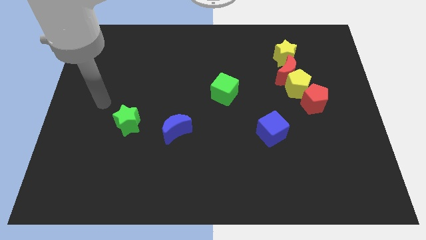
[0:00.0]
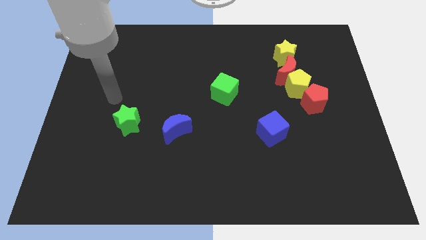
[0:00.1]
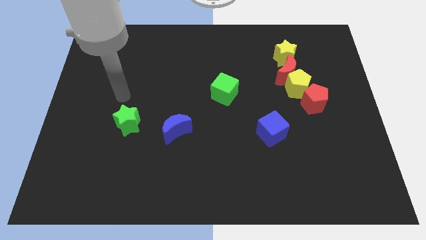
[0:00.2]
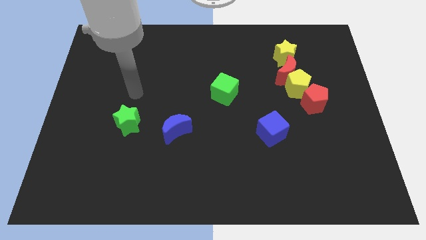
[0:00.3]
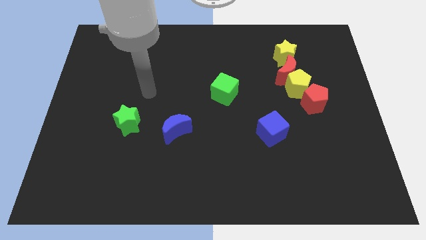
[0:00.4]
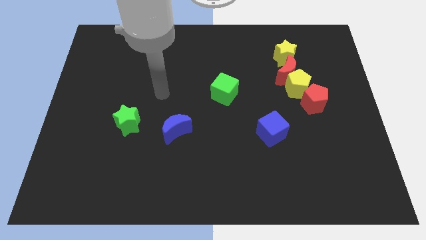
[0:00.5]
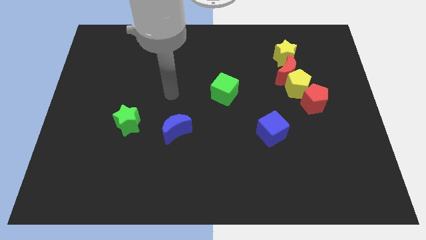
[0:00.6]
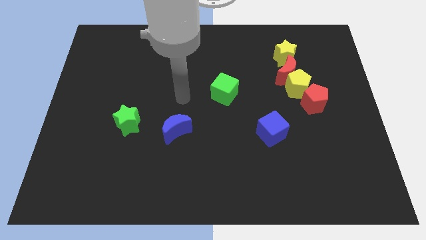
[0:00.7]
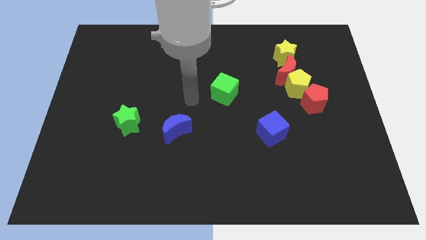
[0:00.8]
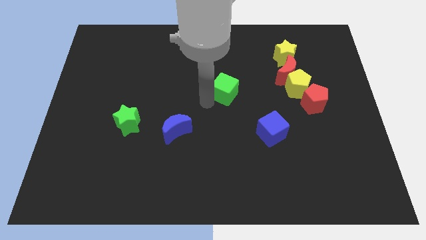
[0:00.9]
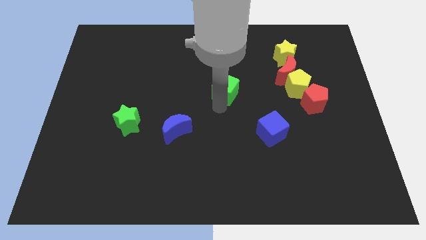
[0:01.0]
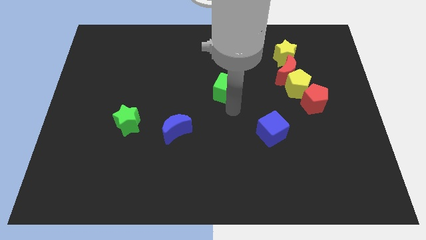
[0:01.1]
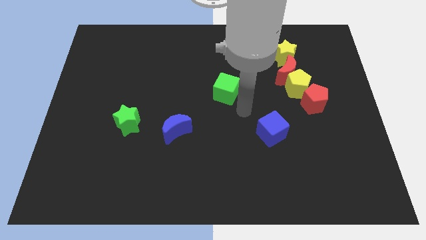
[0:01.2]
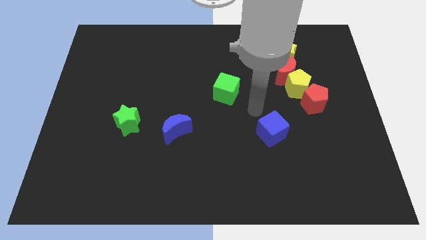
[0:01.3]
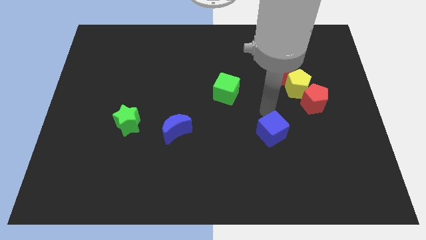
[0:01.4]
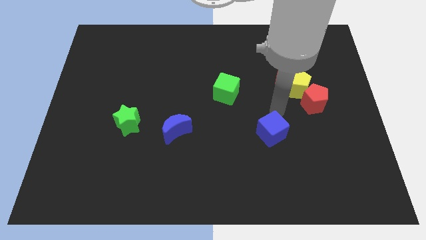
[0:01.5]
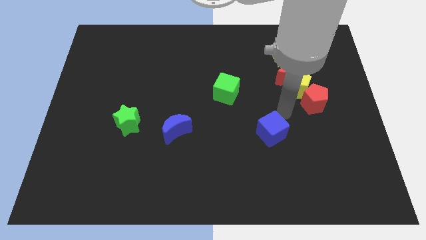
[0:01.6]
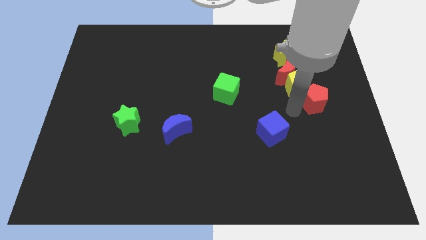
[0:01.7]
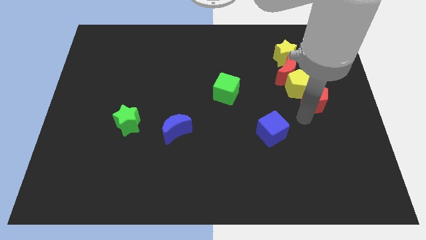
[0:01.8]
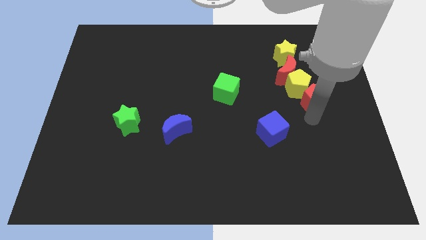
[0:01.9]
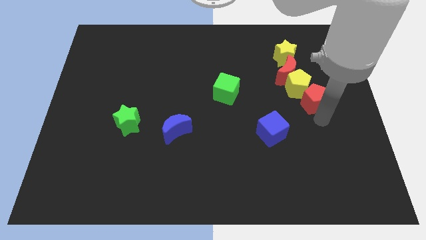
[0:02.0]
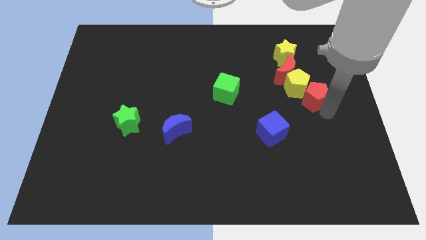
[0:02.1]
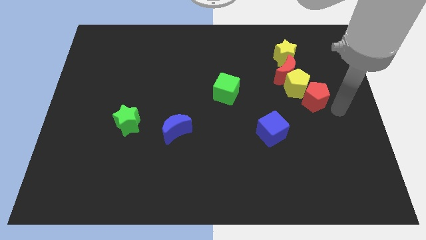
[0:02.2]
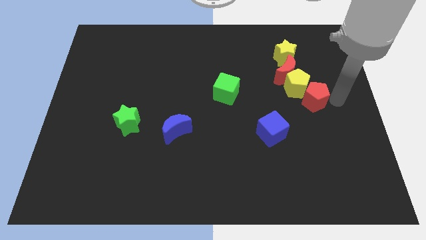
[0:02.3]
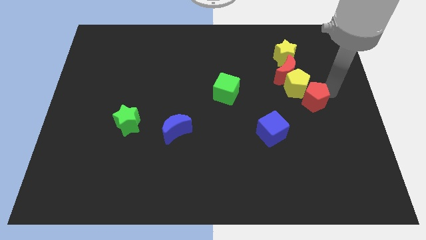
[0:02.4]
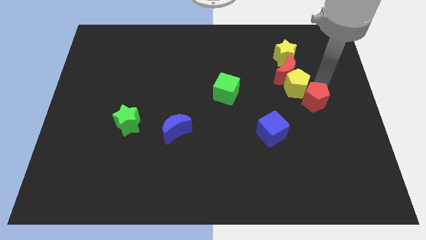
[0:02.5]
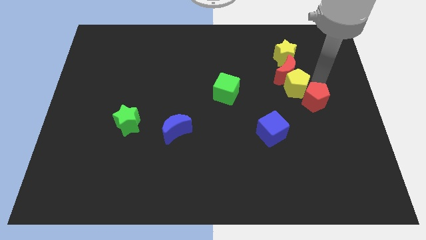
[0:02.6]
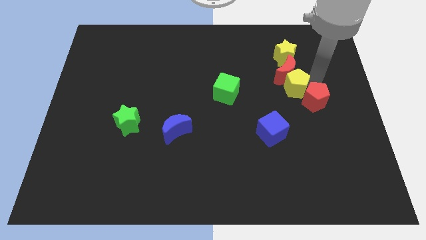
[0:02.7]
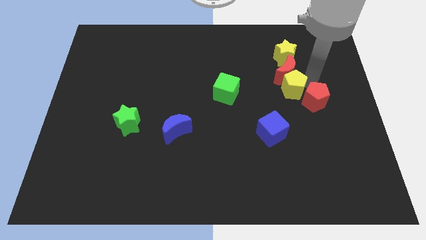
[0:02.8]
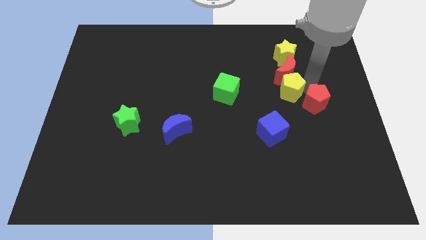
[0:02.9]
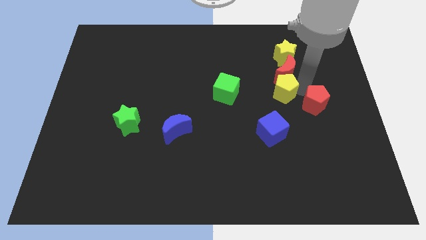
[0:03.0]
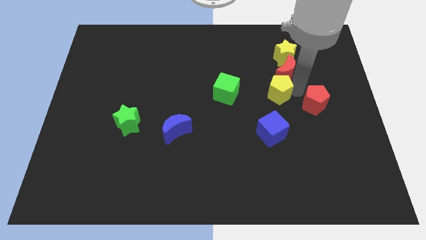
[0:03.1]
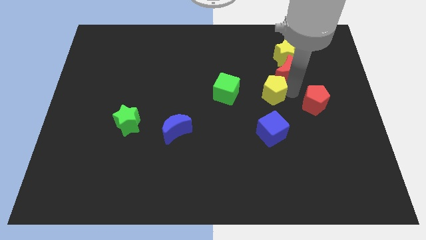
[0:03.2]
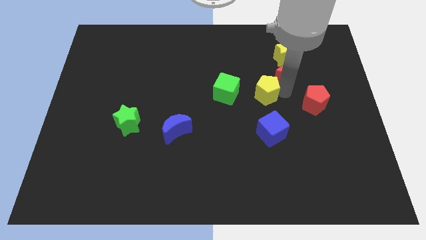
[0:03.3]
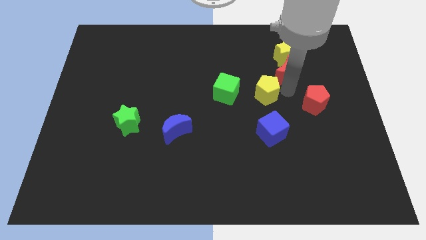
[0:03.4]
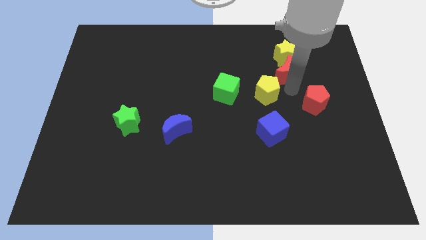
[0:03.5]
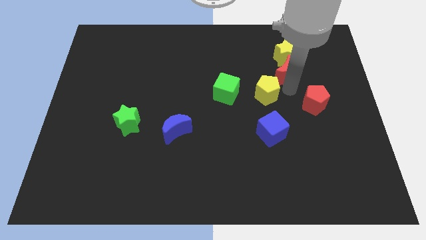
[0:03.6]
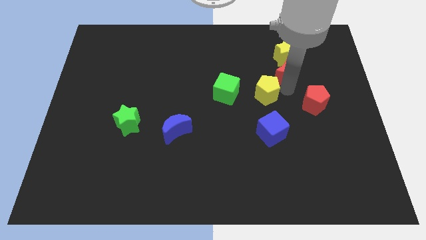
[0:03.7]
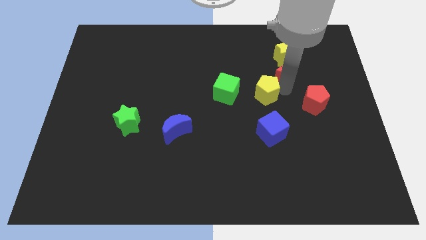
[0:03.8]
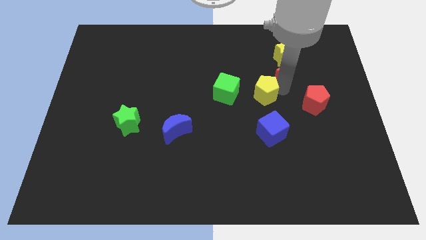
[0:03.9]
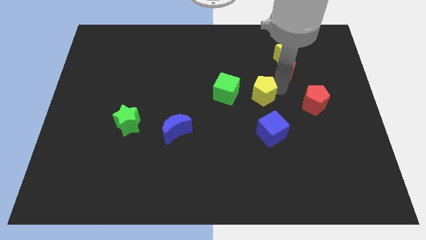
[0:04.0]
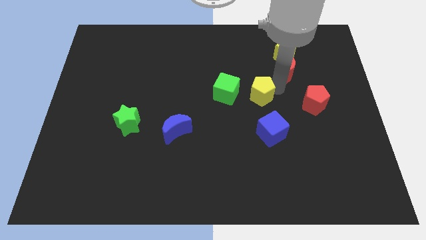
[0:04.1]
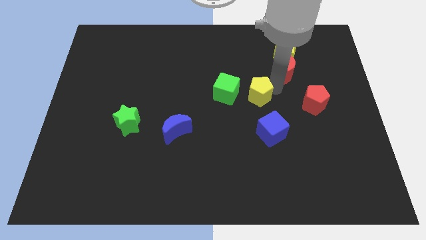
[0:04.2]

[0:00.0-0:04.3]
pull the yellow pentagon apart from the red moon and red pentagon

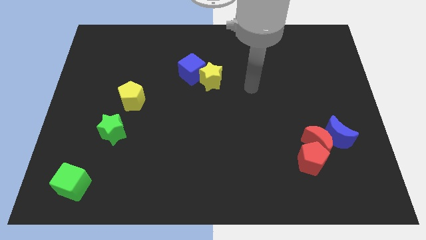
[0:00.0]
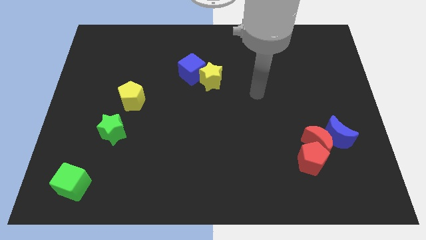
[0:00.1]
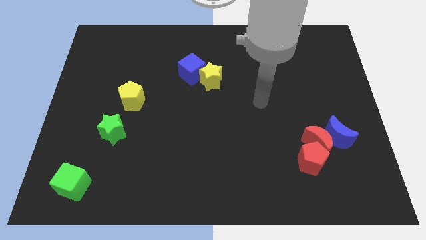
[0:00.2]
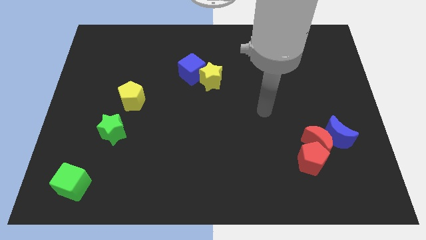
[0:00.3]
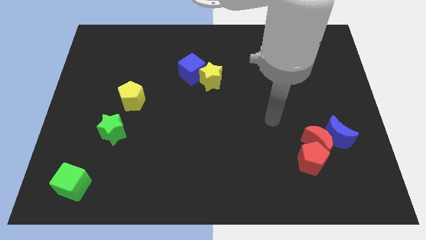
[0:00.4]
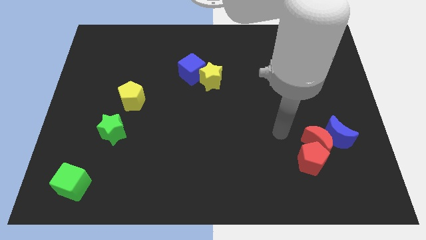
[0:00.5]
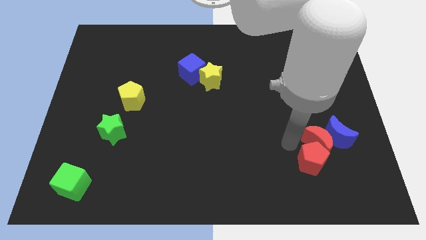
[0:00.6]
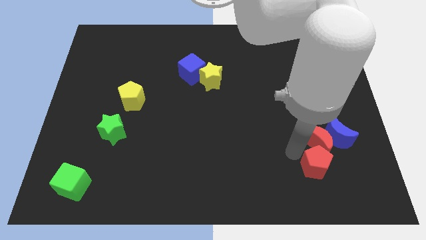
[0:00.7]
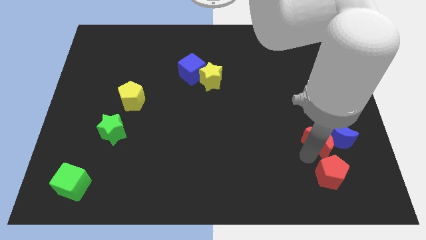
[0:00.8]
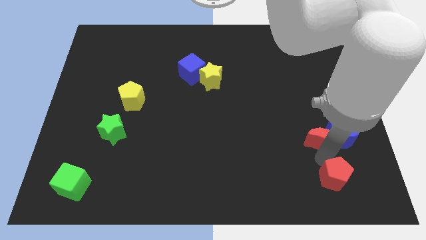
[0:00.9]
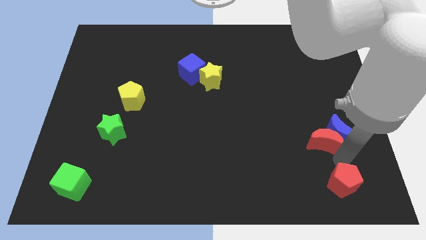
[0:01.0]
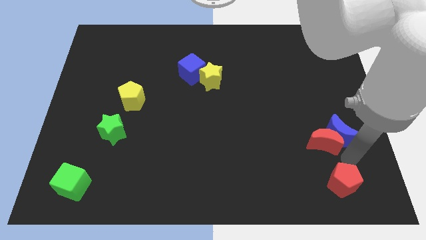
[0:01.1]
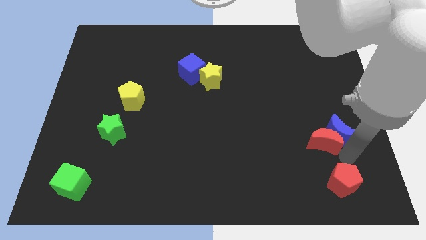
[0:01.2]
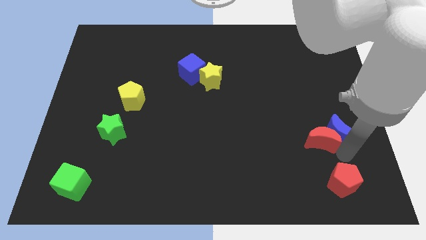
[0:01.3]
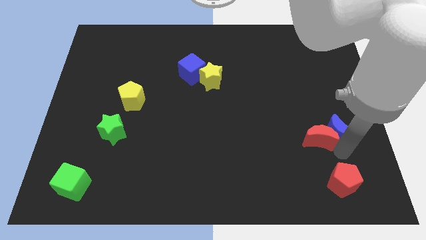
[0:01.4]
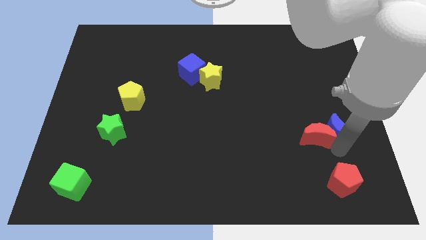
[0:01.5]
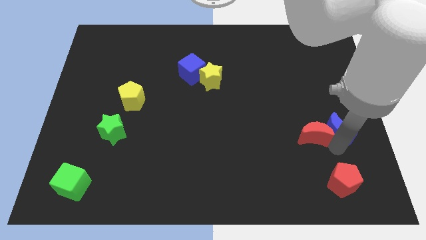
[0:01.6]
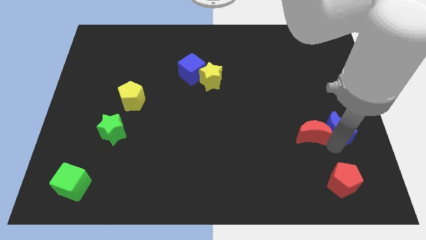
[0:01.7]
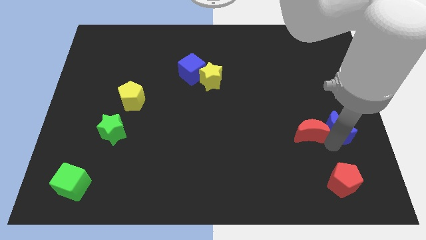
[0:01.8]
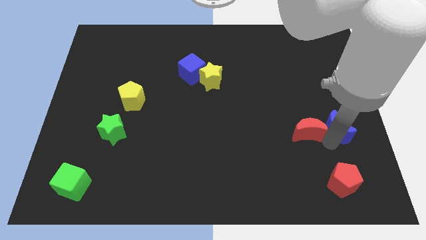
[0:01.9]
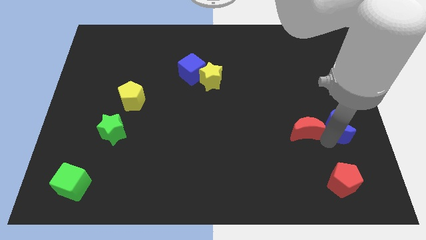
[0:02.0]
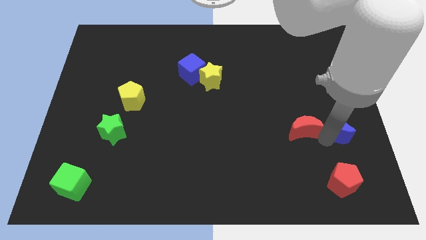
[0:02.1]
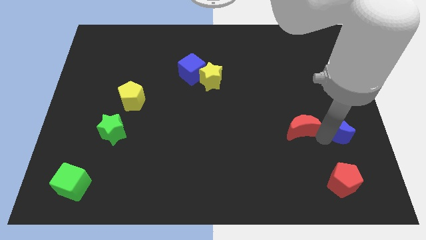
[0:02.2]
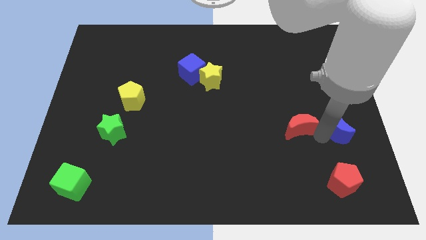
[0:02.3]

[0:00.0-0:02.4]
pull the red moon apart from the blue moon and red pentagon

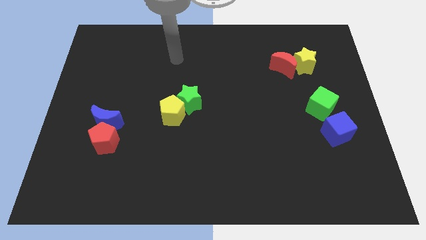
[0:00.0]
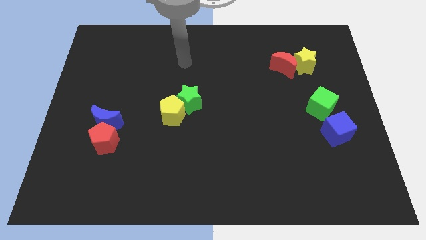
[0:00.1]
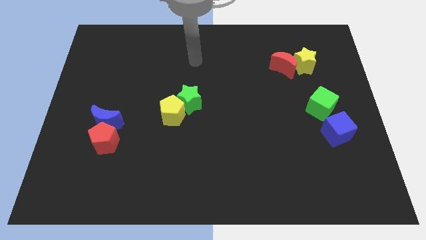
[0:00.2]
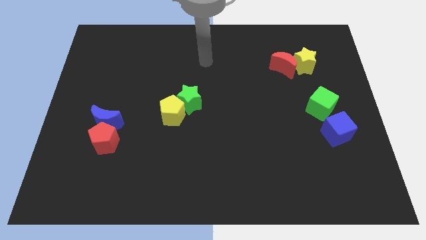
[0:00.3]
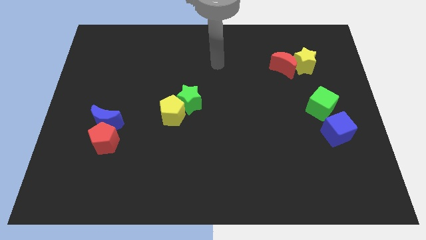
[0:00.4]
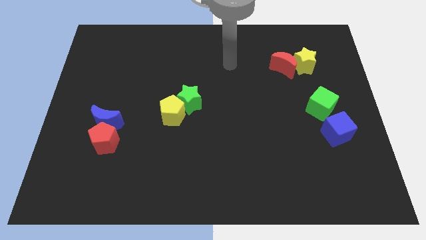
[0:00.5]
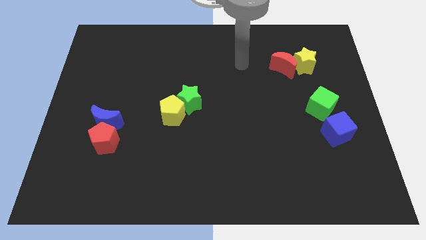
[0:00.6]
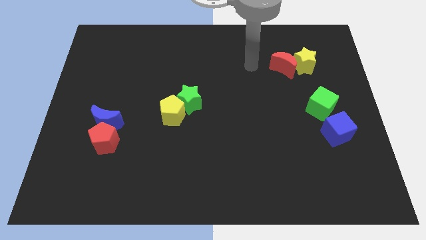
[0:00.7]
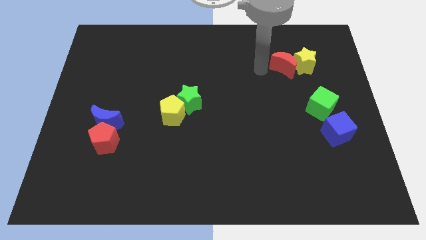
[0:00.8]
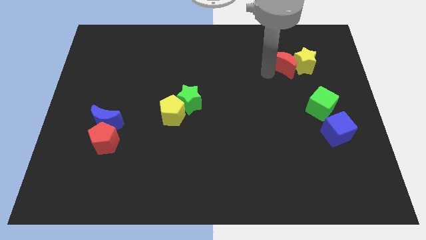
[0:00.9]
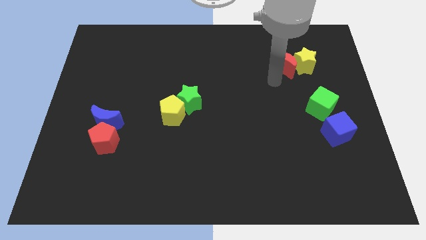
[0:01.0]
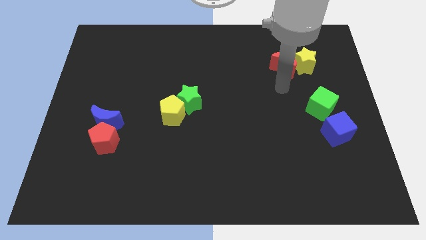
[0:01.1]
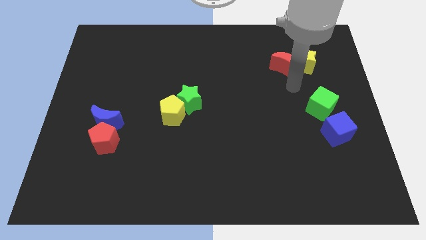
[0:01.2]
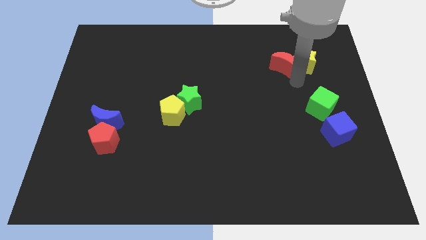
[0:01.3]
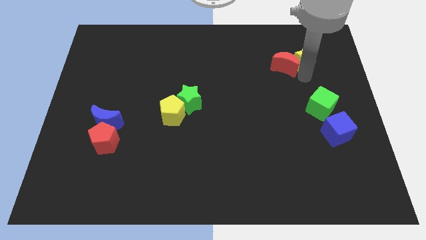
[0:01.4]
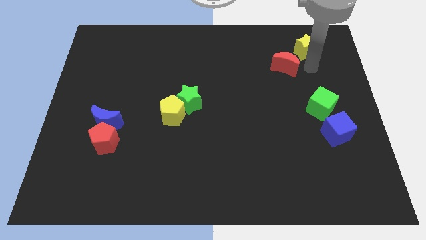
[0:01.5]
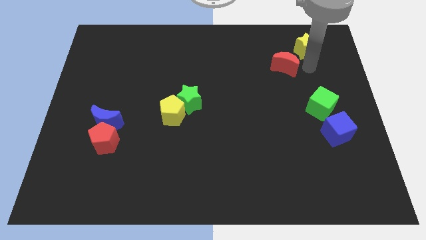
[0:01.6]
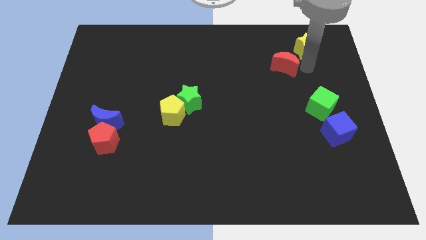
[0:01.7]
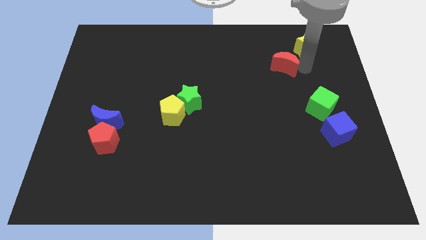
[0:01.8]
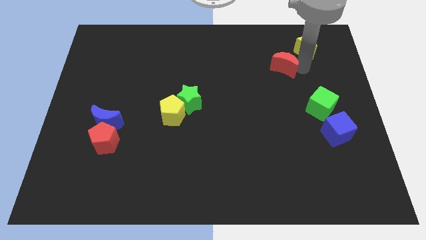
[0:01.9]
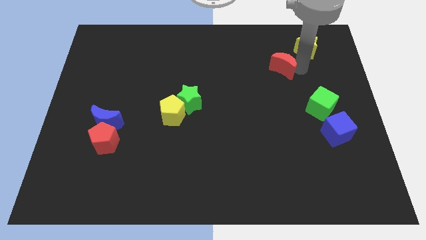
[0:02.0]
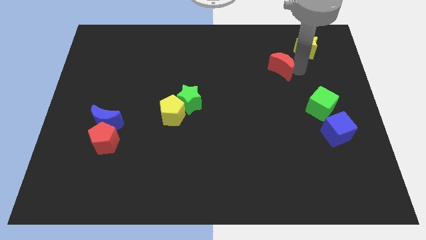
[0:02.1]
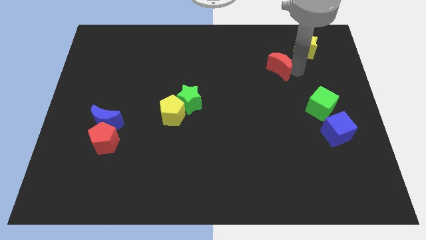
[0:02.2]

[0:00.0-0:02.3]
pull the red moon apart from the yellow star

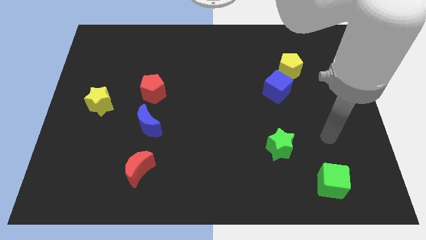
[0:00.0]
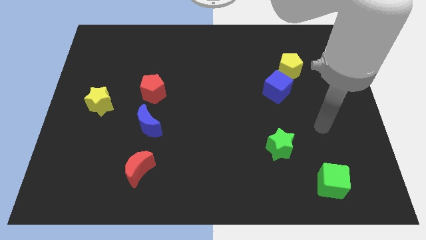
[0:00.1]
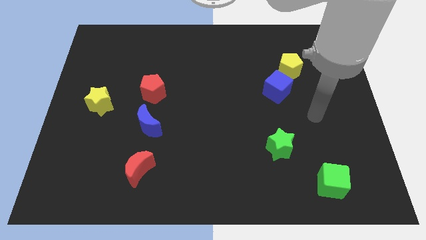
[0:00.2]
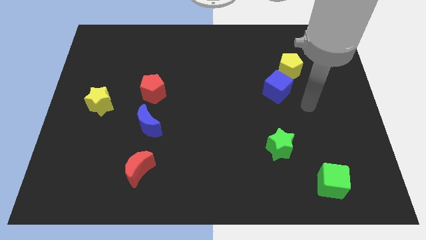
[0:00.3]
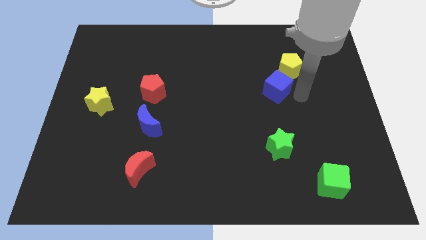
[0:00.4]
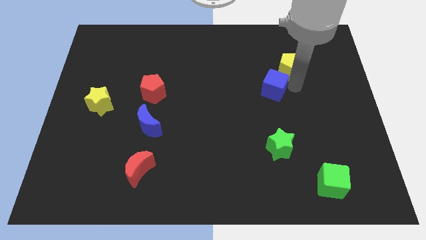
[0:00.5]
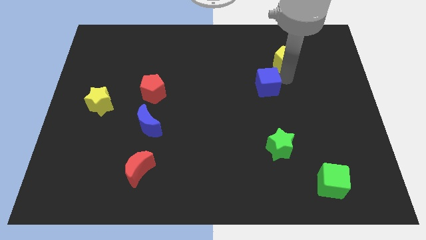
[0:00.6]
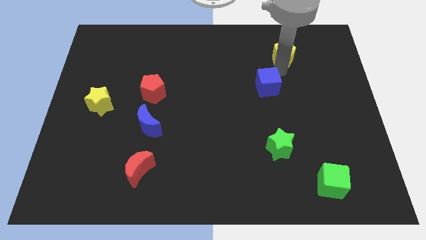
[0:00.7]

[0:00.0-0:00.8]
separate the blue cube from the yellow pentagon
